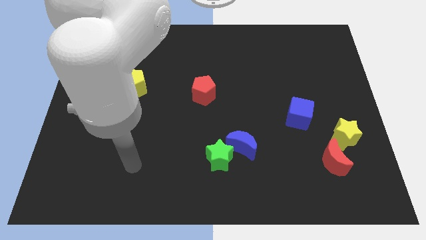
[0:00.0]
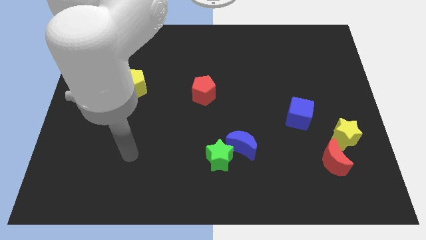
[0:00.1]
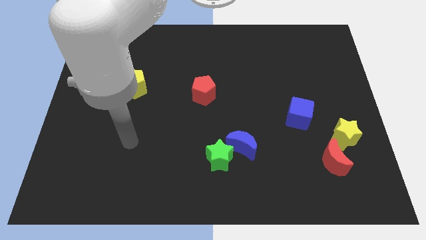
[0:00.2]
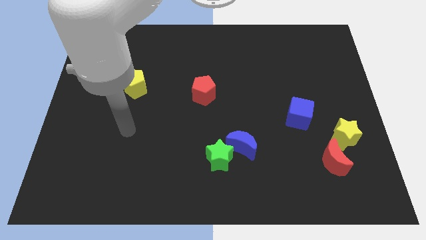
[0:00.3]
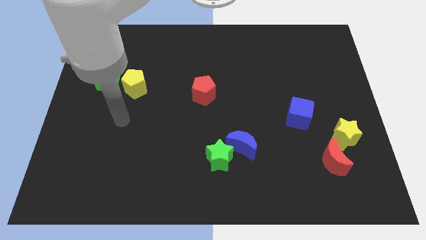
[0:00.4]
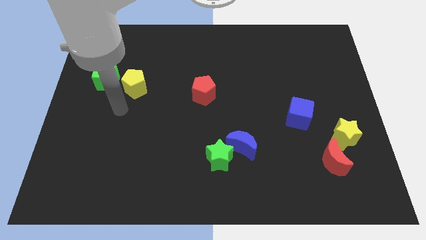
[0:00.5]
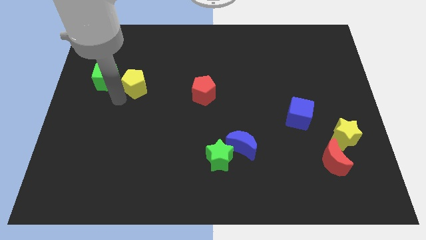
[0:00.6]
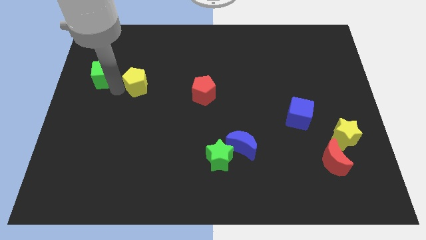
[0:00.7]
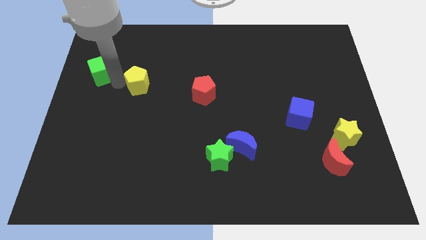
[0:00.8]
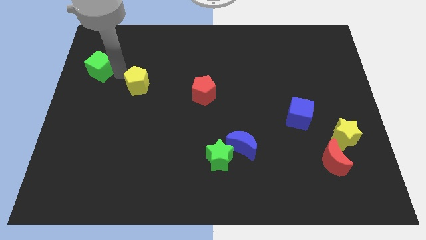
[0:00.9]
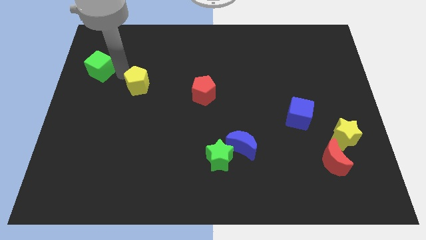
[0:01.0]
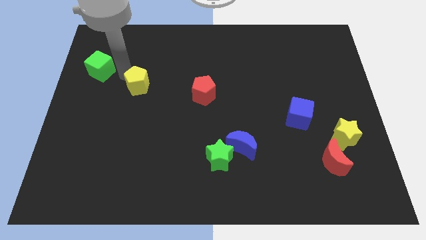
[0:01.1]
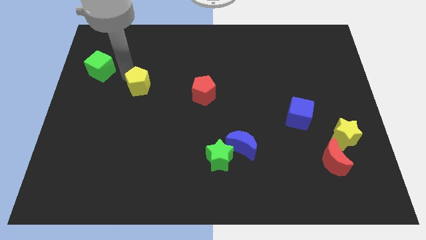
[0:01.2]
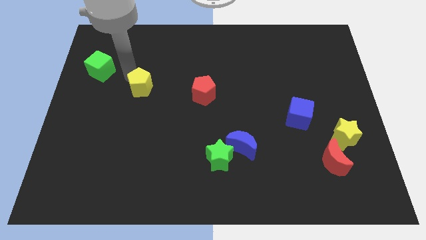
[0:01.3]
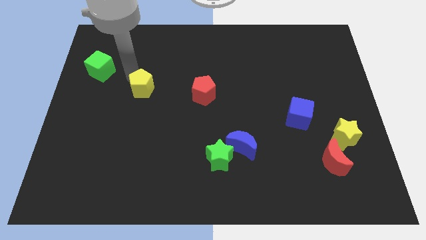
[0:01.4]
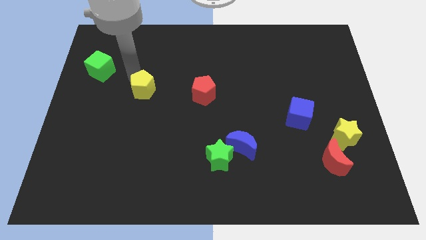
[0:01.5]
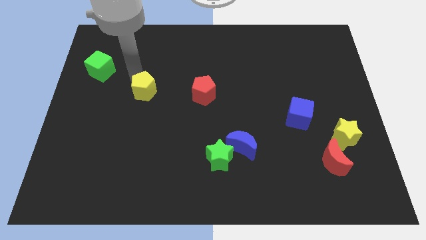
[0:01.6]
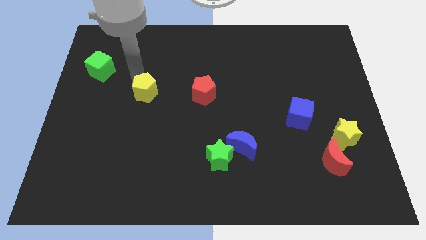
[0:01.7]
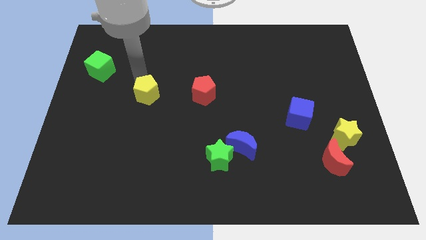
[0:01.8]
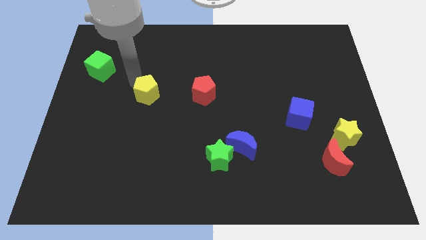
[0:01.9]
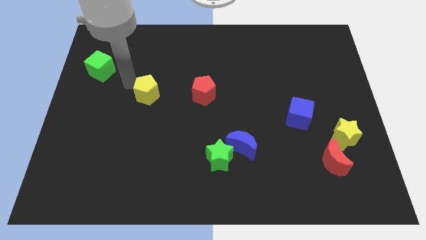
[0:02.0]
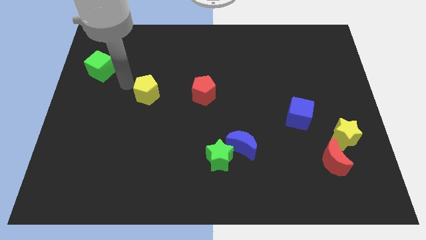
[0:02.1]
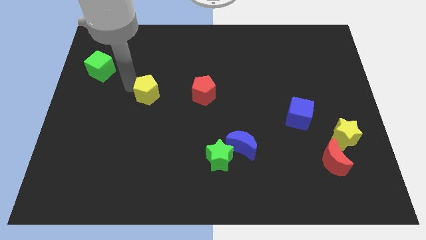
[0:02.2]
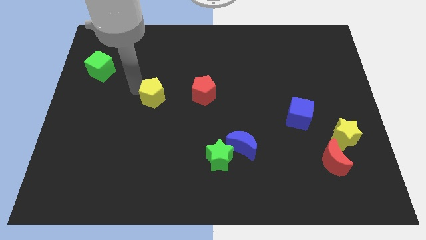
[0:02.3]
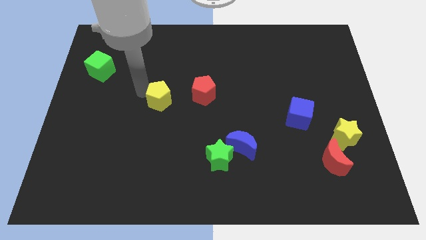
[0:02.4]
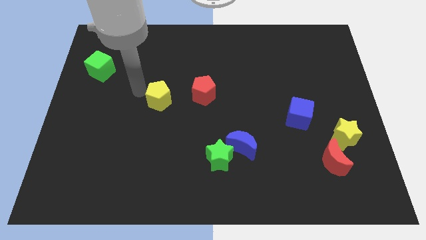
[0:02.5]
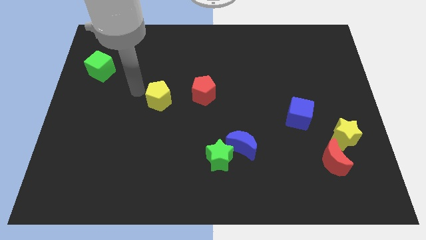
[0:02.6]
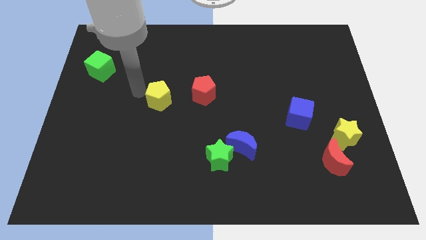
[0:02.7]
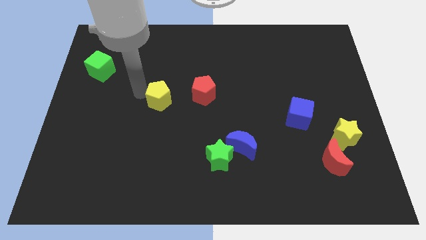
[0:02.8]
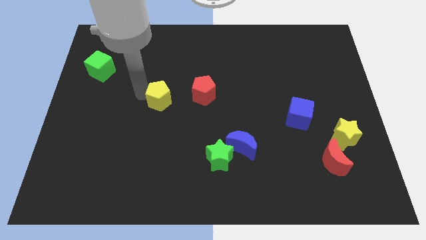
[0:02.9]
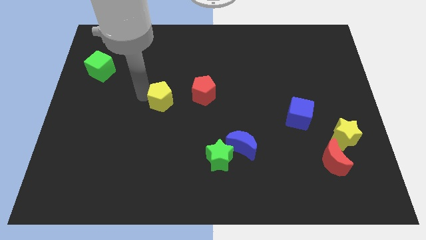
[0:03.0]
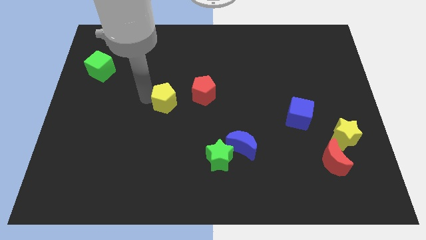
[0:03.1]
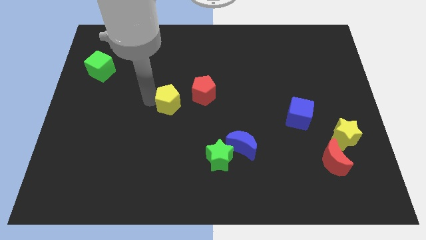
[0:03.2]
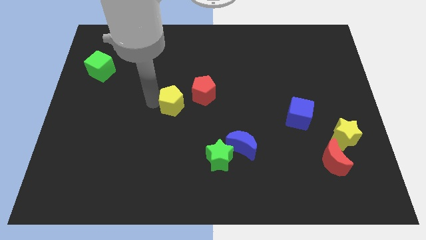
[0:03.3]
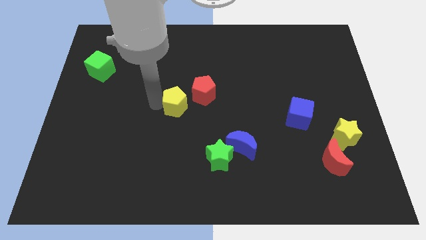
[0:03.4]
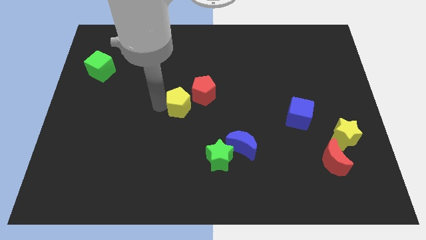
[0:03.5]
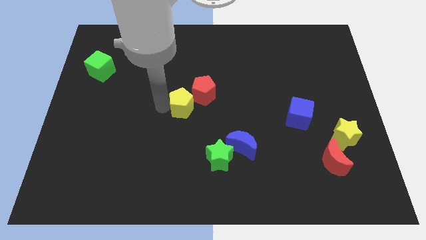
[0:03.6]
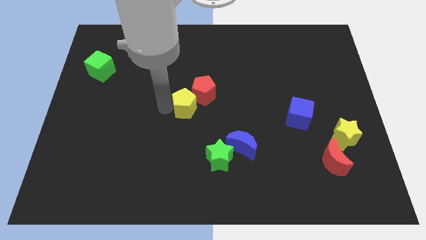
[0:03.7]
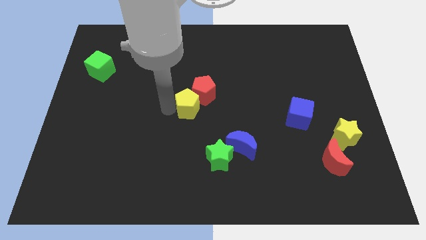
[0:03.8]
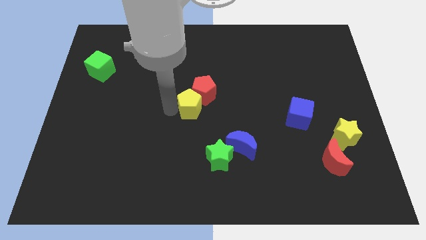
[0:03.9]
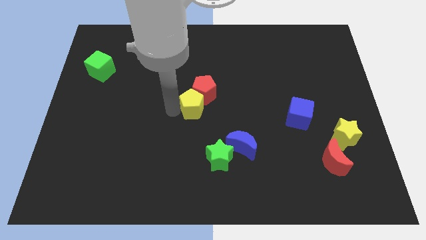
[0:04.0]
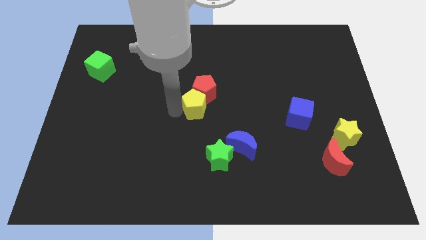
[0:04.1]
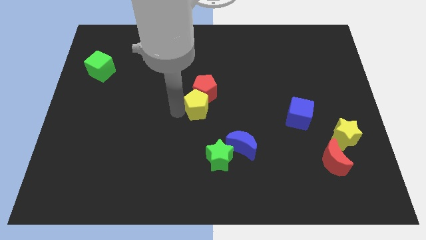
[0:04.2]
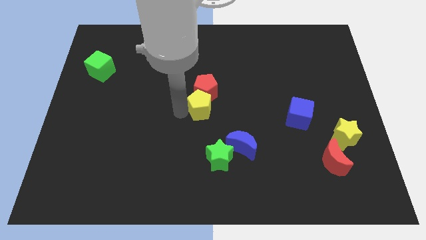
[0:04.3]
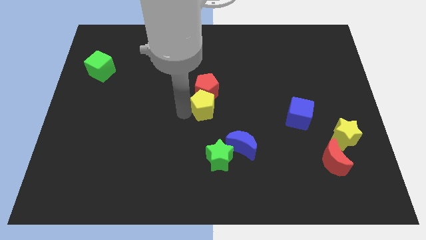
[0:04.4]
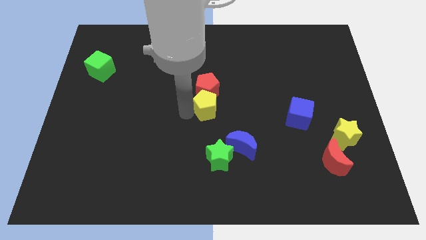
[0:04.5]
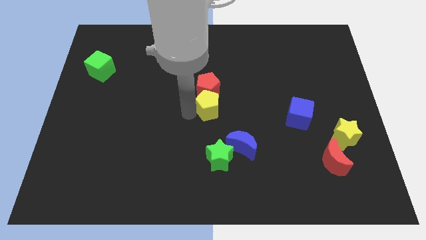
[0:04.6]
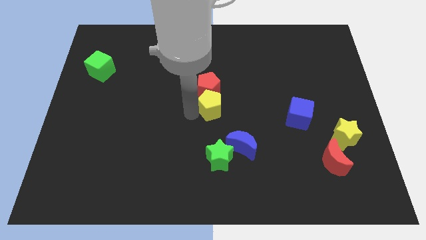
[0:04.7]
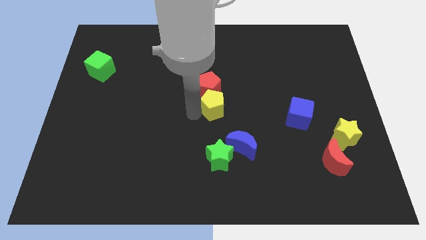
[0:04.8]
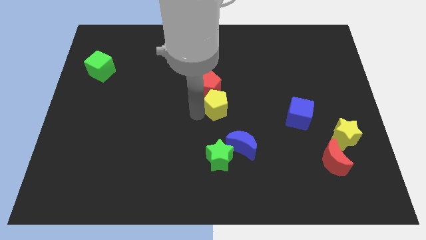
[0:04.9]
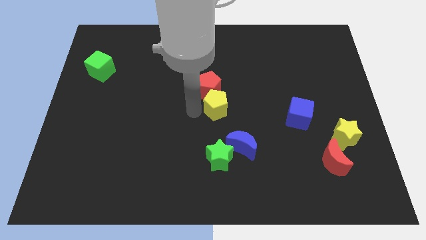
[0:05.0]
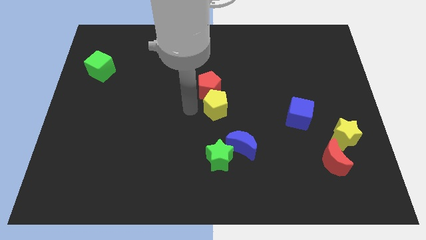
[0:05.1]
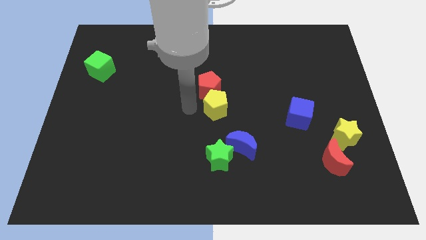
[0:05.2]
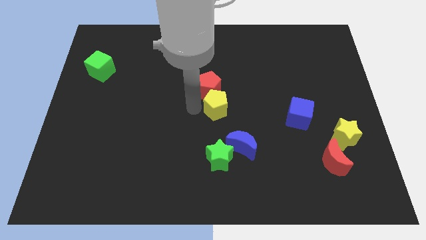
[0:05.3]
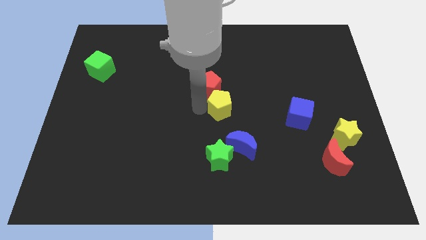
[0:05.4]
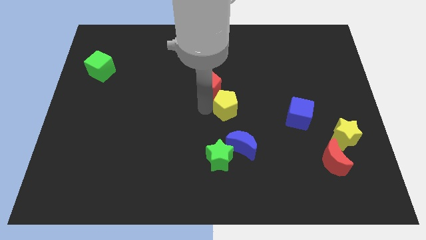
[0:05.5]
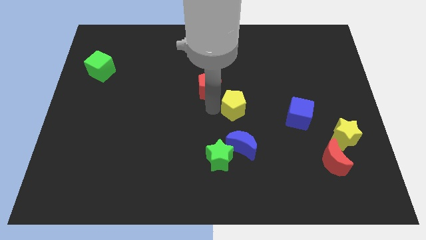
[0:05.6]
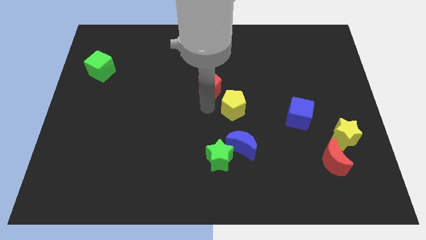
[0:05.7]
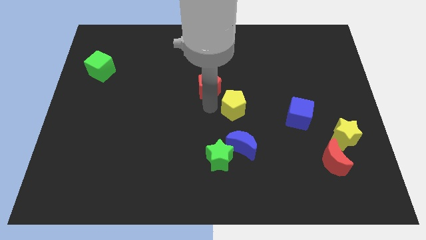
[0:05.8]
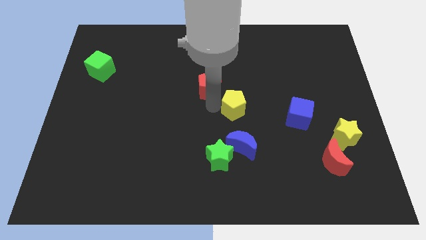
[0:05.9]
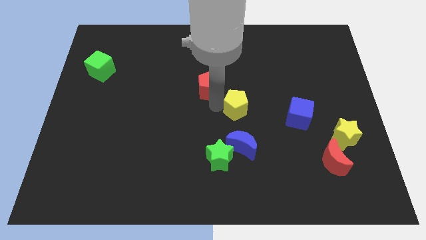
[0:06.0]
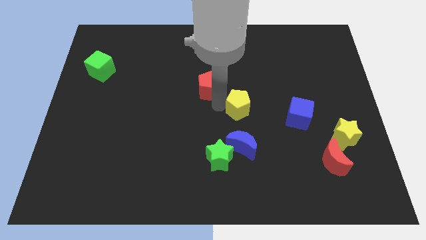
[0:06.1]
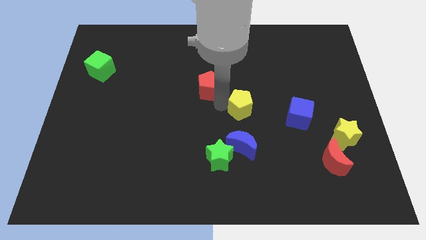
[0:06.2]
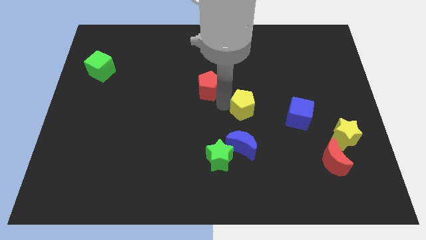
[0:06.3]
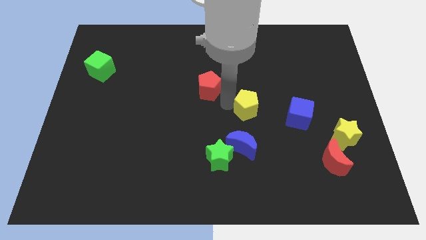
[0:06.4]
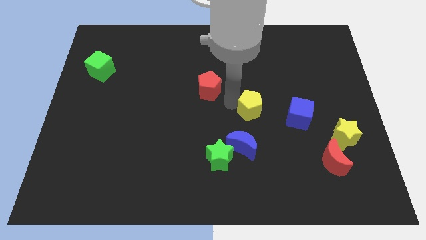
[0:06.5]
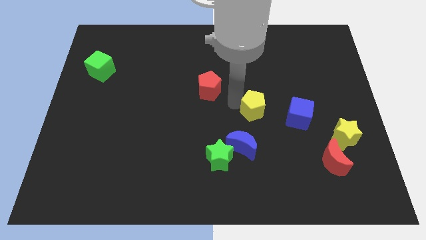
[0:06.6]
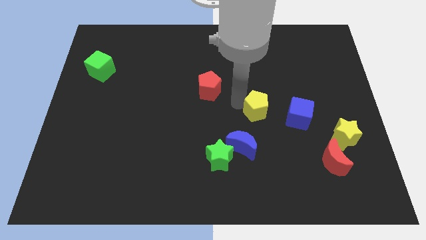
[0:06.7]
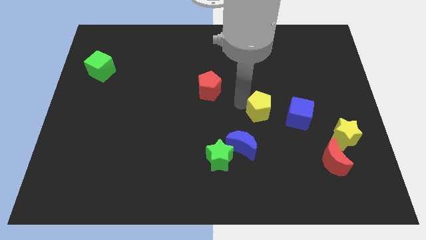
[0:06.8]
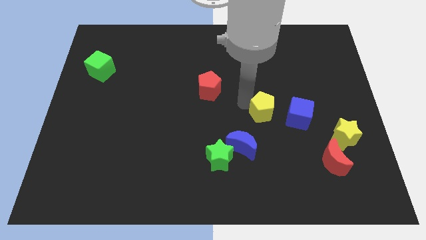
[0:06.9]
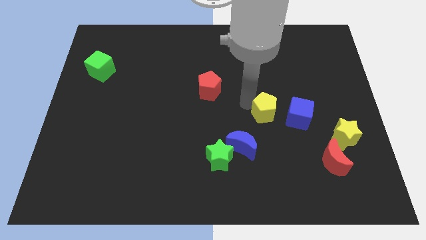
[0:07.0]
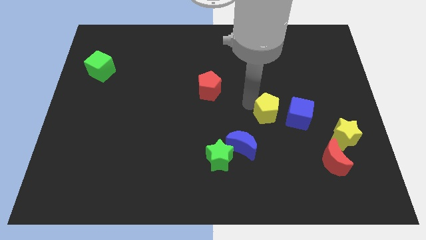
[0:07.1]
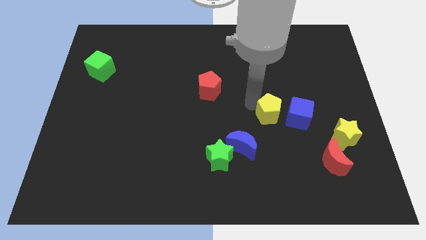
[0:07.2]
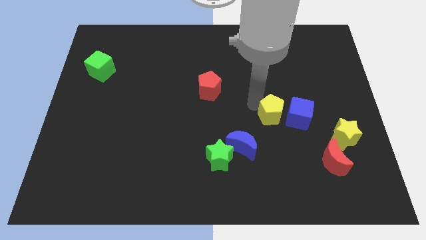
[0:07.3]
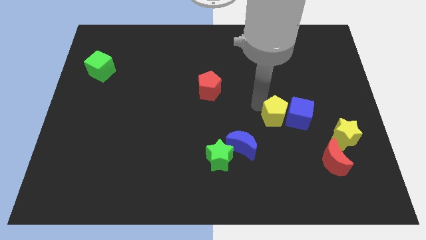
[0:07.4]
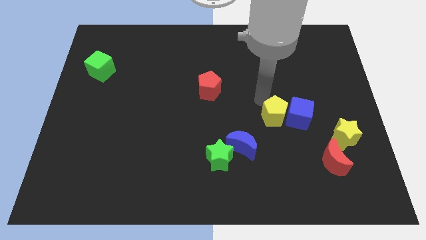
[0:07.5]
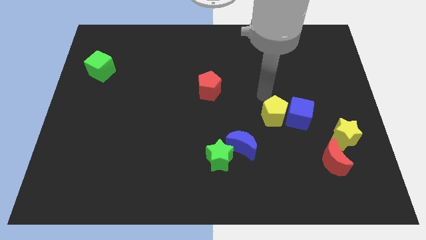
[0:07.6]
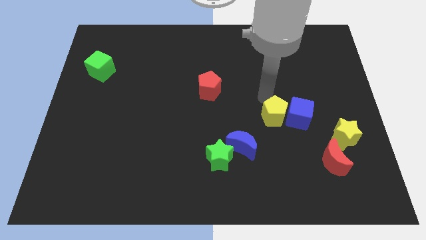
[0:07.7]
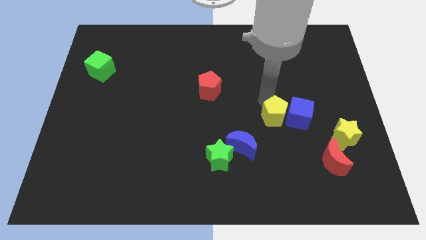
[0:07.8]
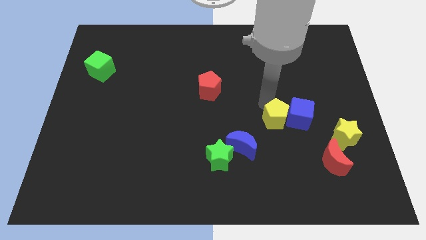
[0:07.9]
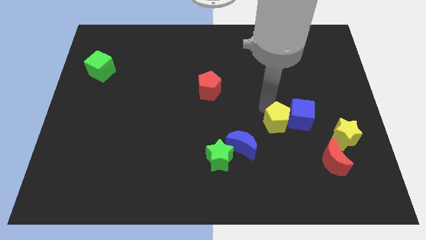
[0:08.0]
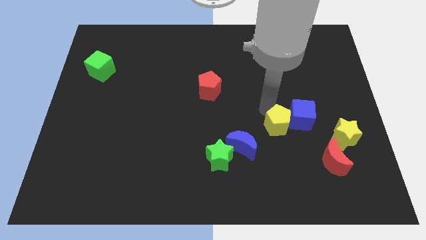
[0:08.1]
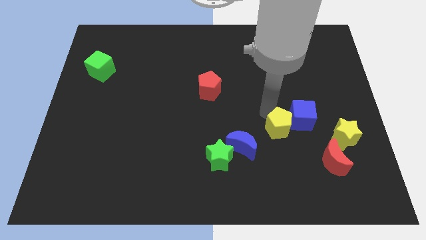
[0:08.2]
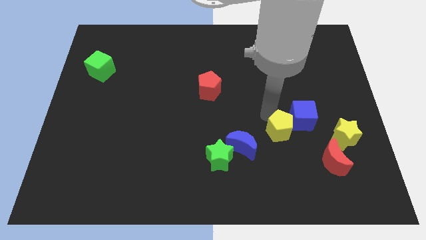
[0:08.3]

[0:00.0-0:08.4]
slide the yellow pentagon right of the blue moon
